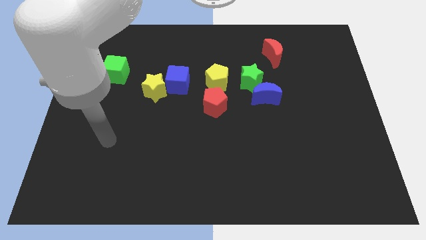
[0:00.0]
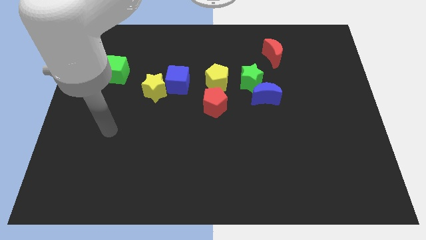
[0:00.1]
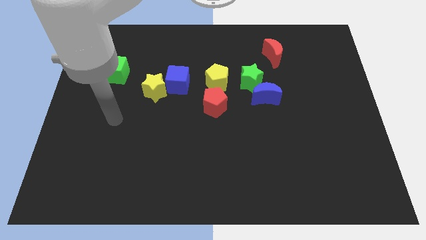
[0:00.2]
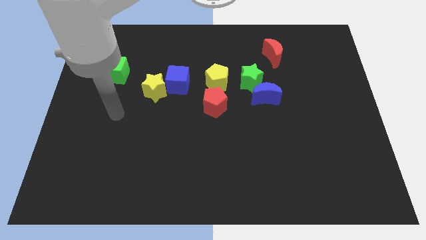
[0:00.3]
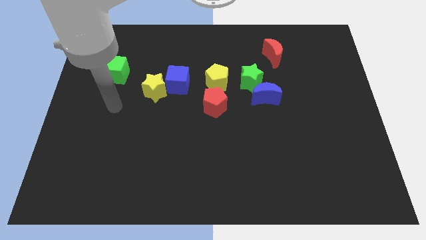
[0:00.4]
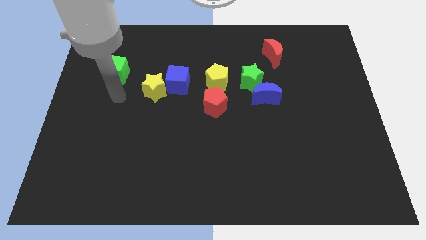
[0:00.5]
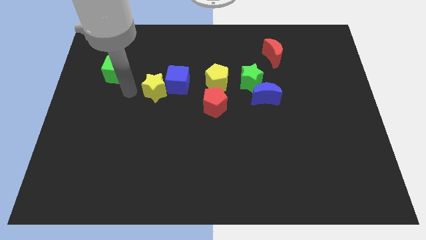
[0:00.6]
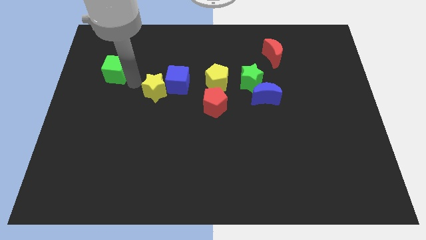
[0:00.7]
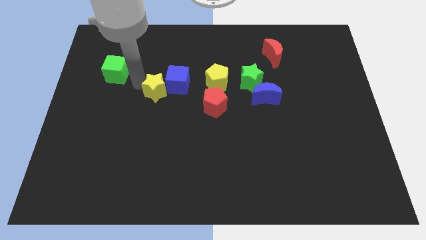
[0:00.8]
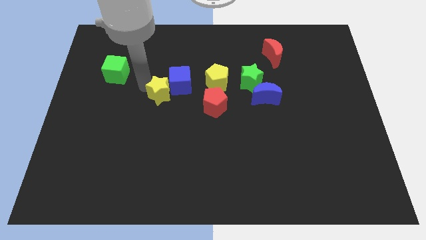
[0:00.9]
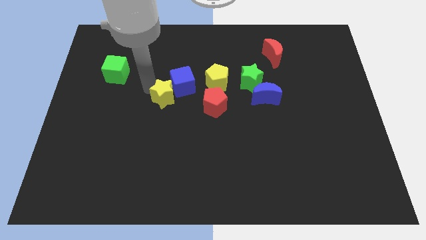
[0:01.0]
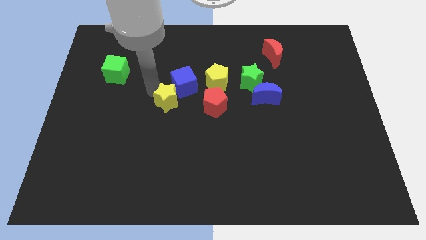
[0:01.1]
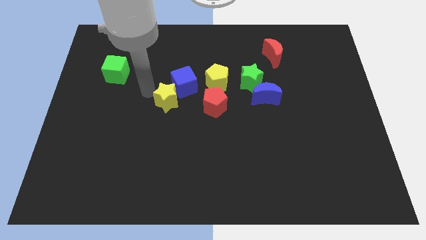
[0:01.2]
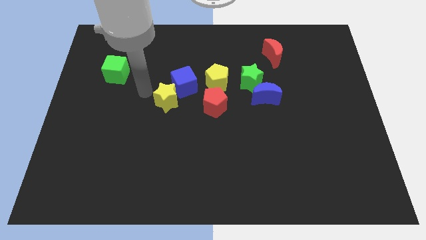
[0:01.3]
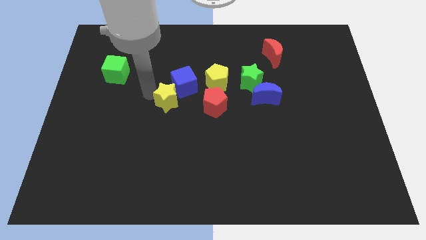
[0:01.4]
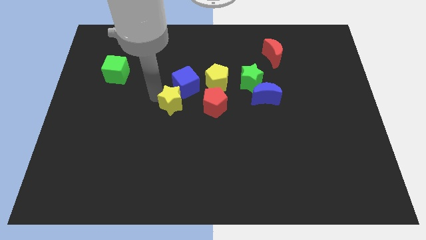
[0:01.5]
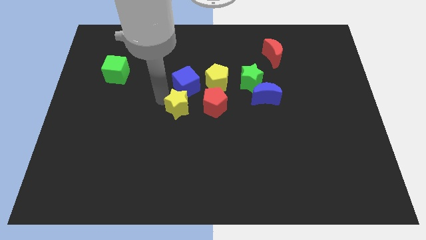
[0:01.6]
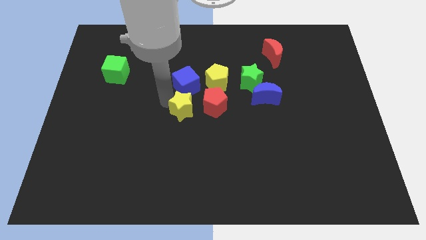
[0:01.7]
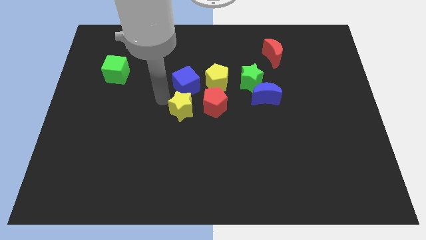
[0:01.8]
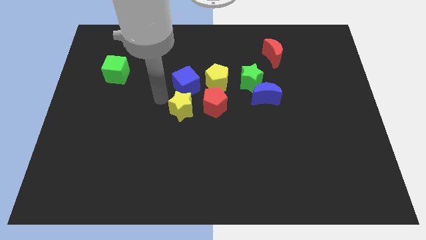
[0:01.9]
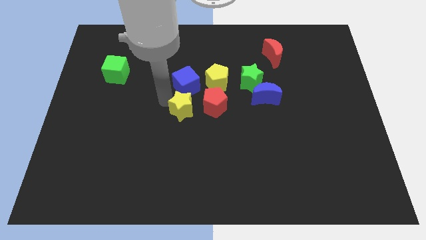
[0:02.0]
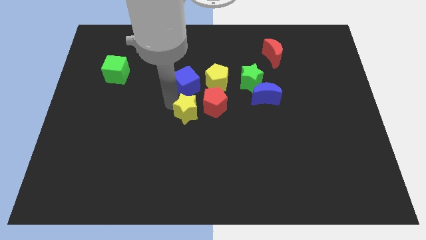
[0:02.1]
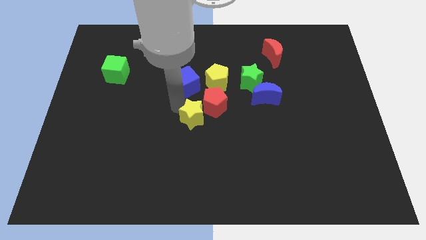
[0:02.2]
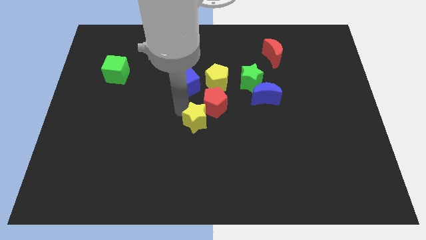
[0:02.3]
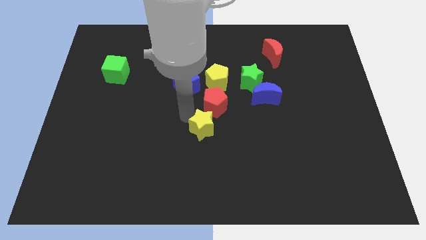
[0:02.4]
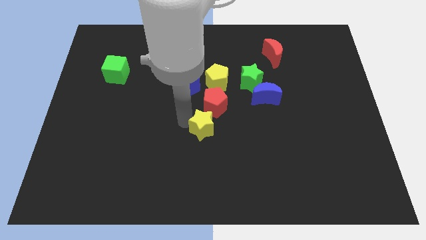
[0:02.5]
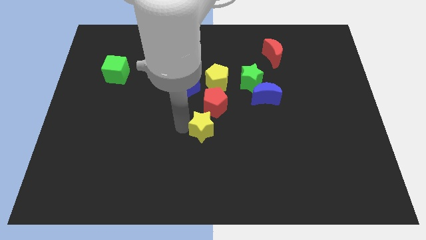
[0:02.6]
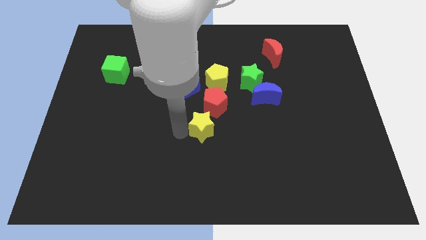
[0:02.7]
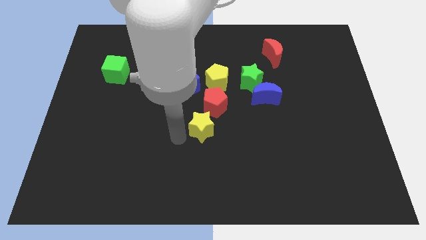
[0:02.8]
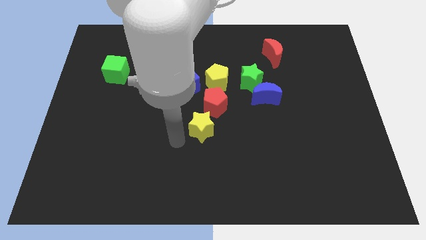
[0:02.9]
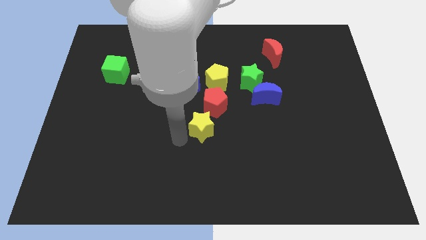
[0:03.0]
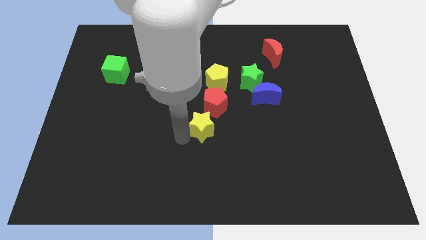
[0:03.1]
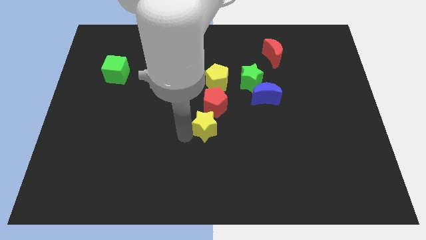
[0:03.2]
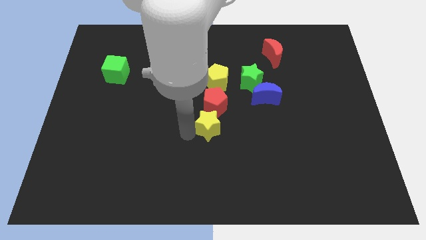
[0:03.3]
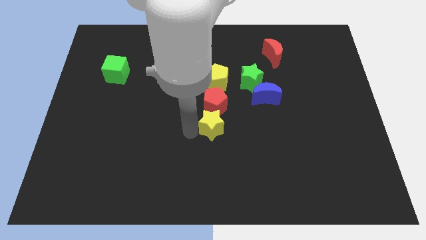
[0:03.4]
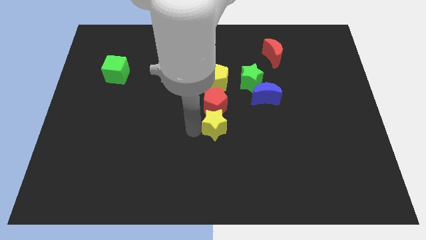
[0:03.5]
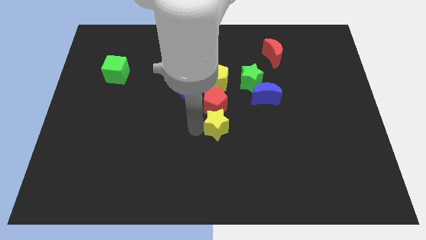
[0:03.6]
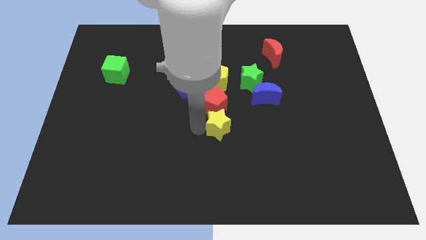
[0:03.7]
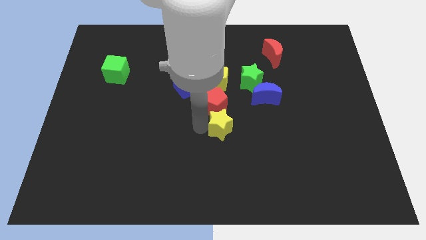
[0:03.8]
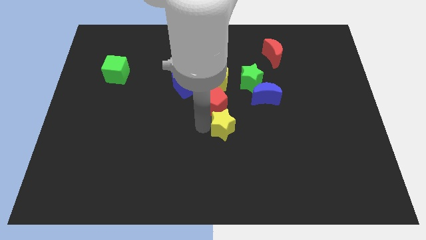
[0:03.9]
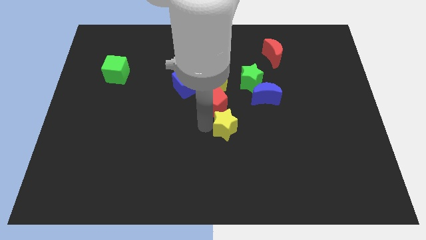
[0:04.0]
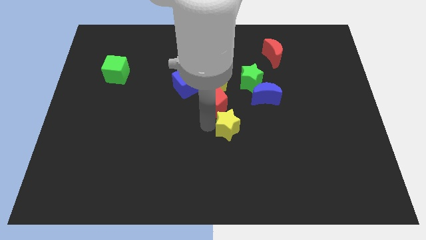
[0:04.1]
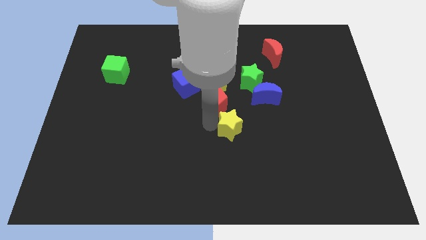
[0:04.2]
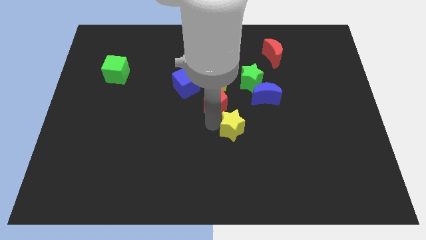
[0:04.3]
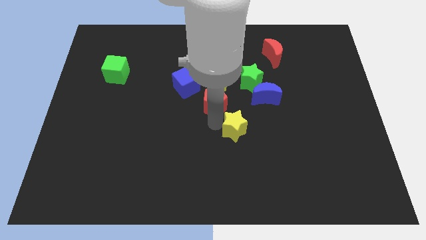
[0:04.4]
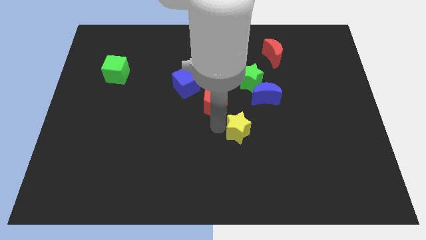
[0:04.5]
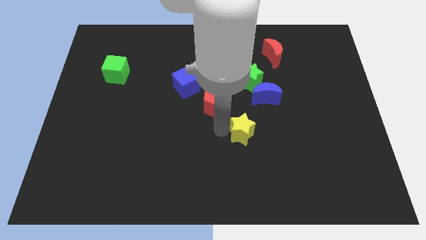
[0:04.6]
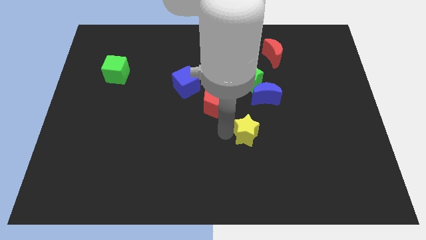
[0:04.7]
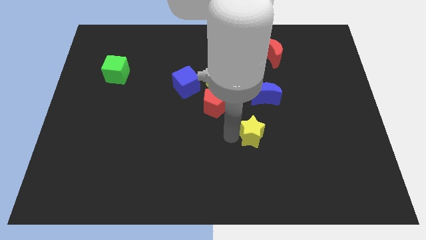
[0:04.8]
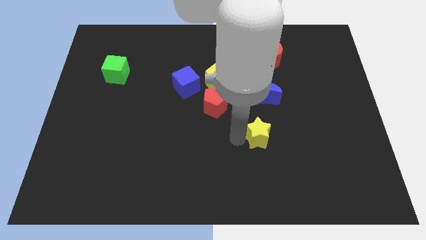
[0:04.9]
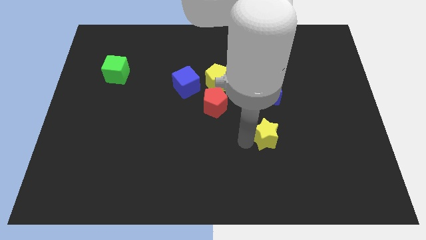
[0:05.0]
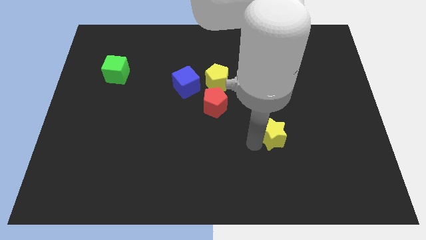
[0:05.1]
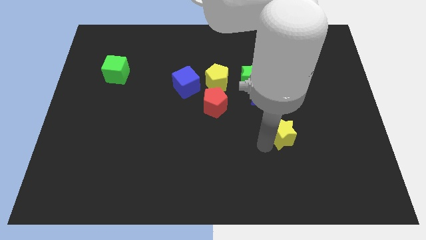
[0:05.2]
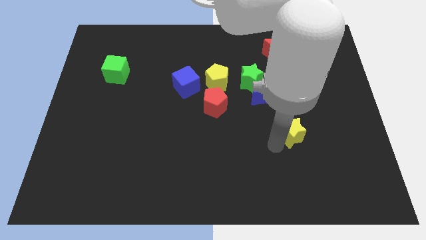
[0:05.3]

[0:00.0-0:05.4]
put the yellow star diagonally down and to the right of the blue moon

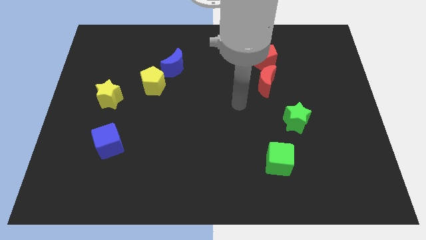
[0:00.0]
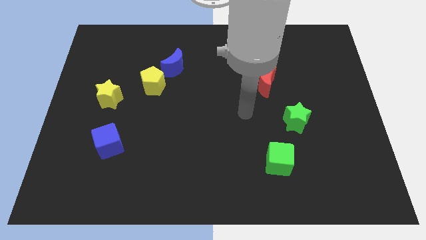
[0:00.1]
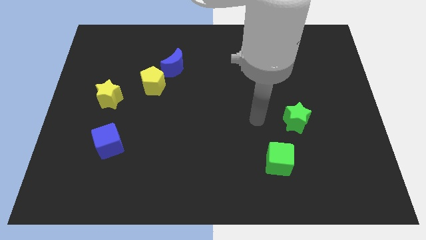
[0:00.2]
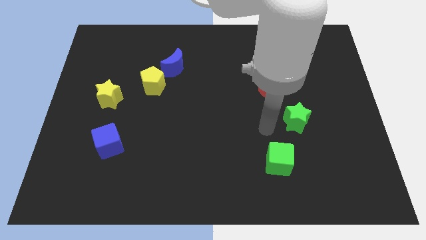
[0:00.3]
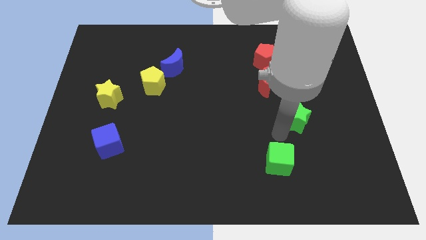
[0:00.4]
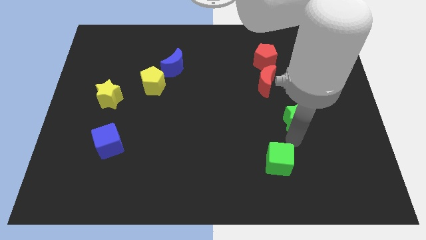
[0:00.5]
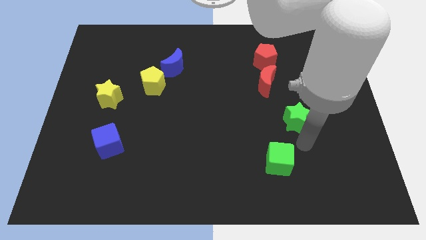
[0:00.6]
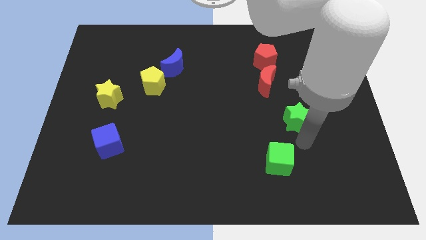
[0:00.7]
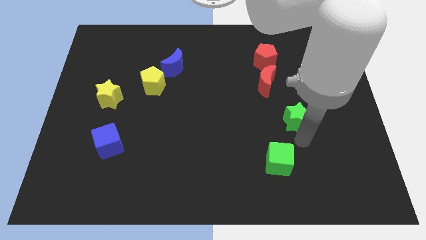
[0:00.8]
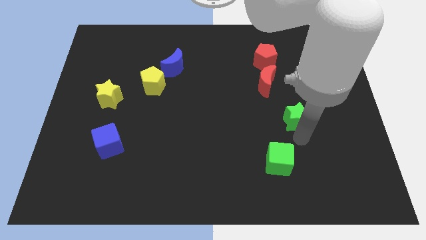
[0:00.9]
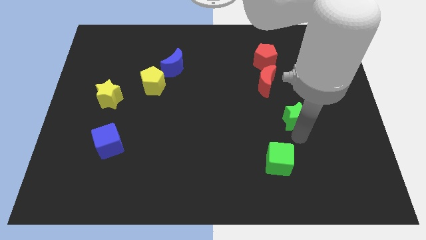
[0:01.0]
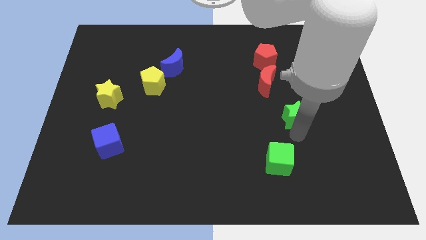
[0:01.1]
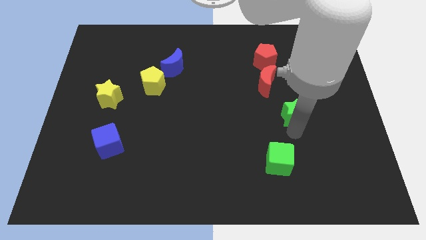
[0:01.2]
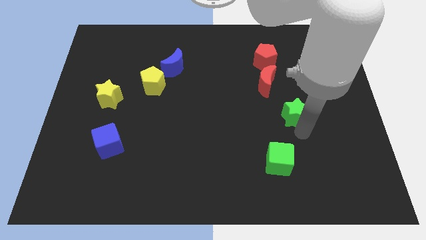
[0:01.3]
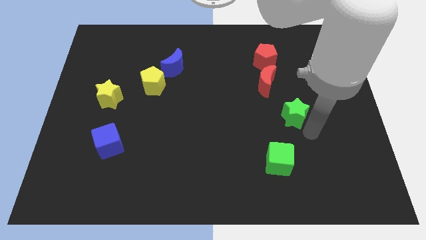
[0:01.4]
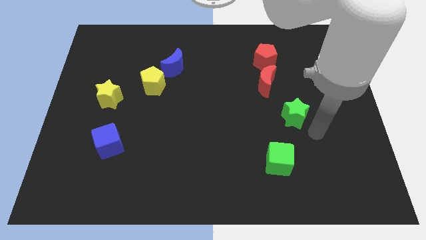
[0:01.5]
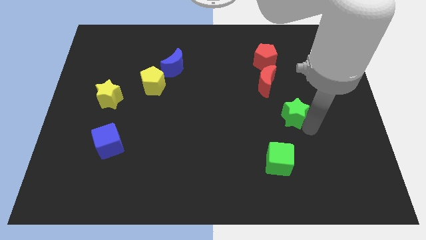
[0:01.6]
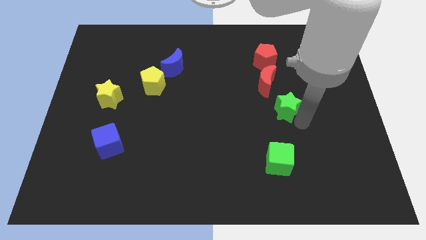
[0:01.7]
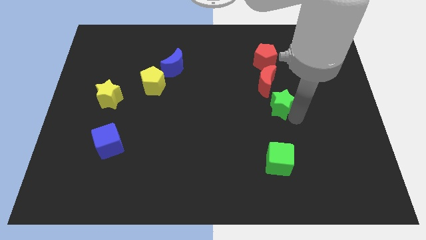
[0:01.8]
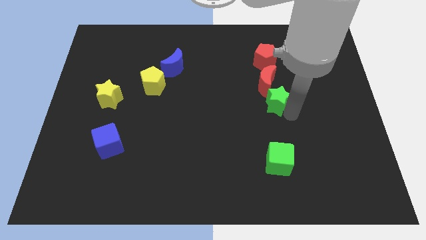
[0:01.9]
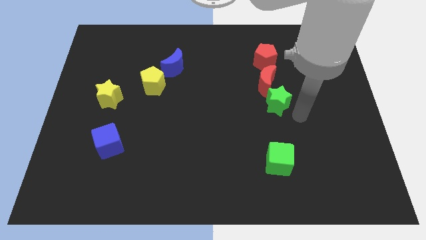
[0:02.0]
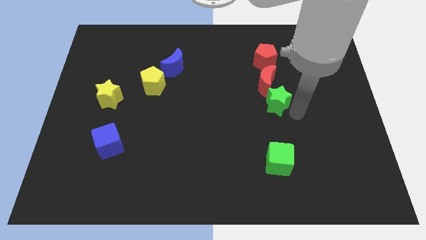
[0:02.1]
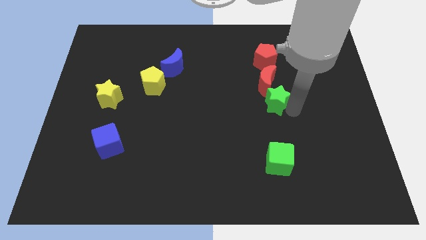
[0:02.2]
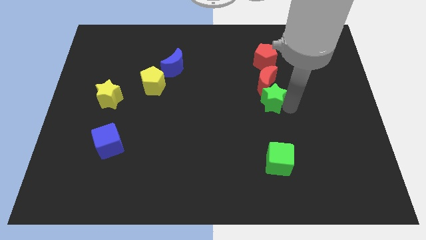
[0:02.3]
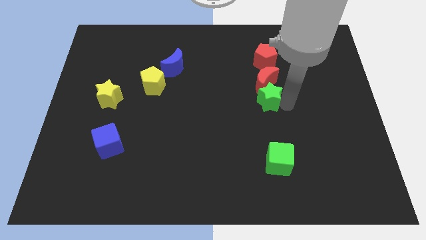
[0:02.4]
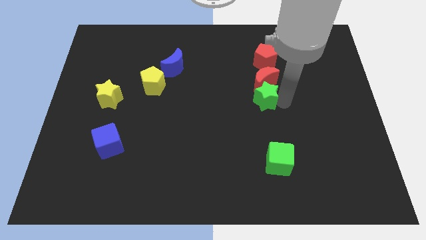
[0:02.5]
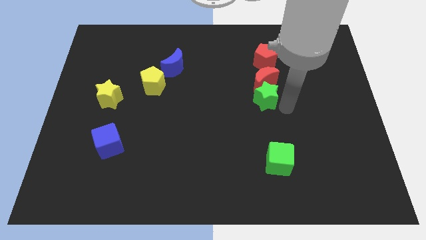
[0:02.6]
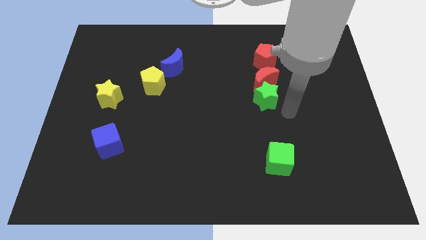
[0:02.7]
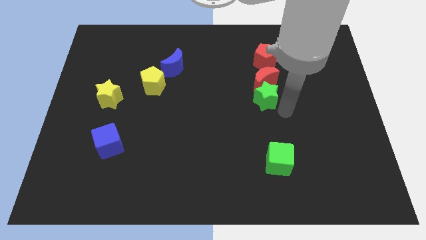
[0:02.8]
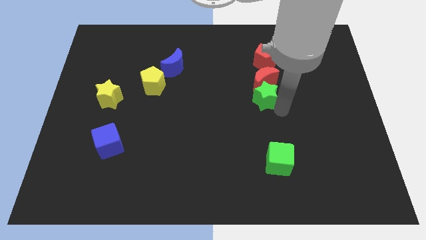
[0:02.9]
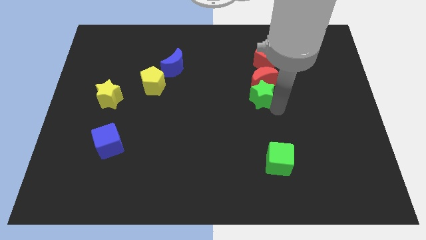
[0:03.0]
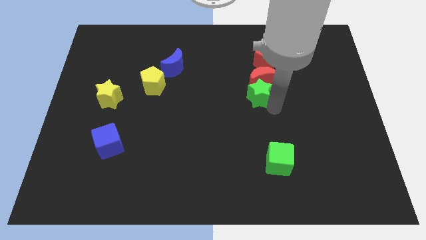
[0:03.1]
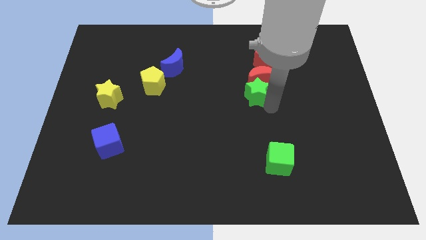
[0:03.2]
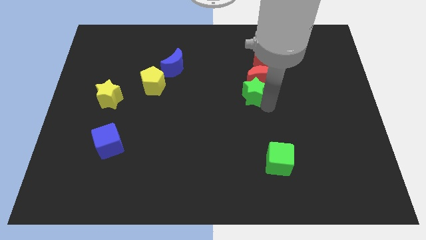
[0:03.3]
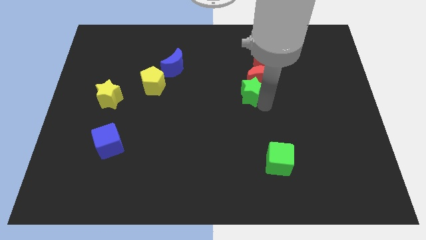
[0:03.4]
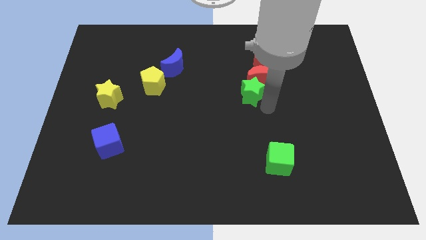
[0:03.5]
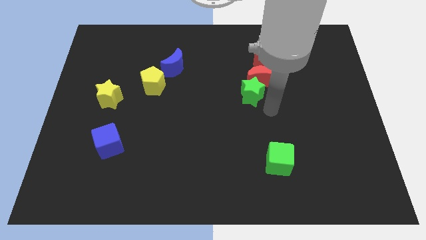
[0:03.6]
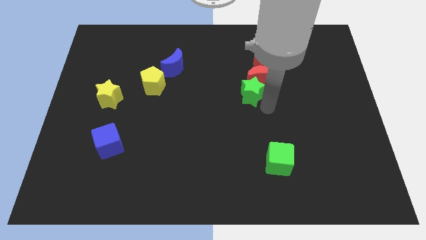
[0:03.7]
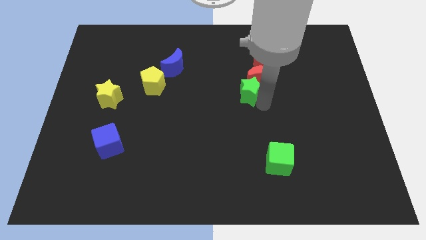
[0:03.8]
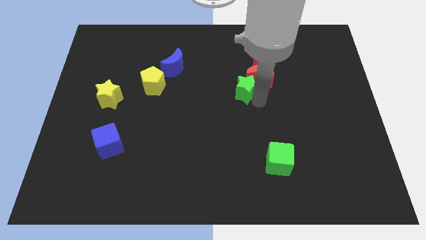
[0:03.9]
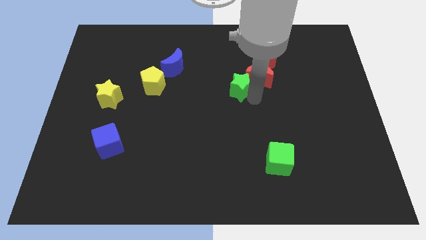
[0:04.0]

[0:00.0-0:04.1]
put the green star diagonally down and to the left of the red pentagon
